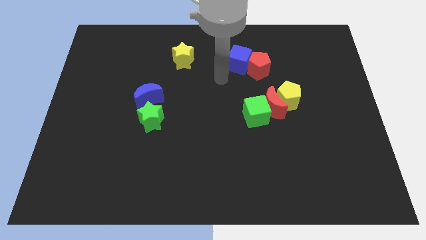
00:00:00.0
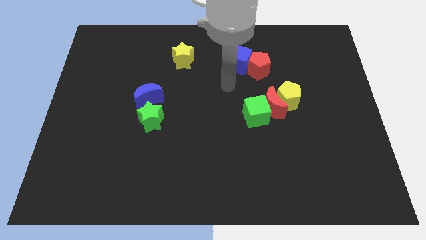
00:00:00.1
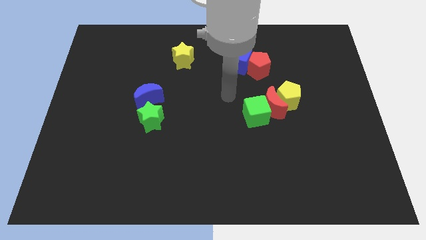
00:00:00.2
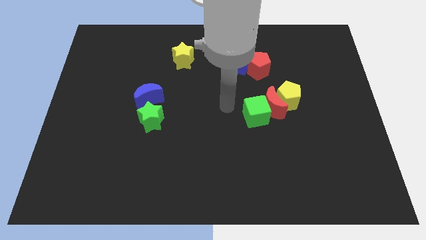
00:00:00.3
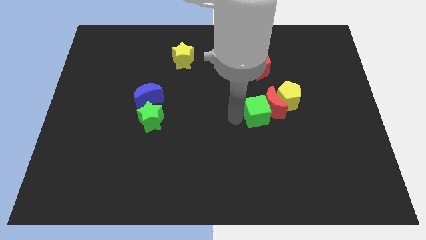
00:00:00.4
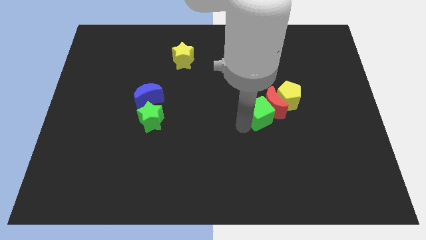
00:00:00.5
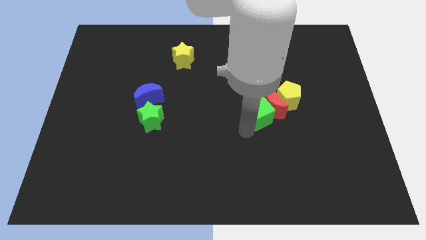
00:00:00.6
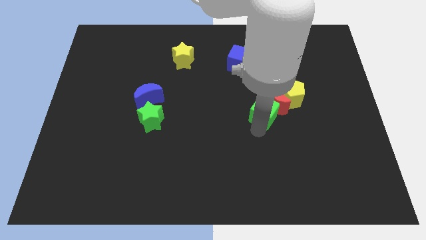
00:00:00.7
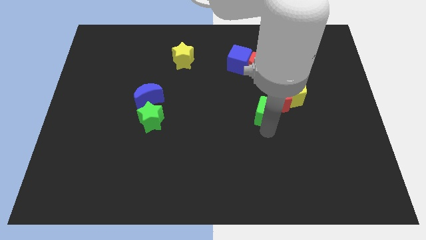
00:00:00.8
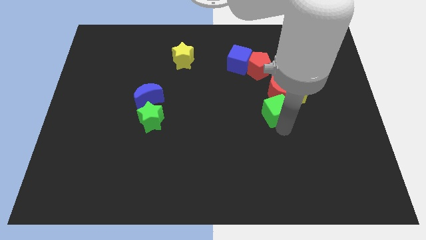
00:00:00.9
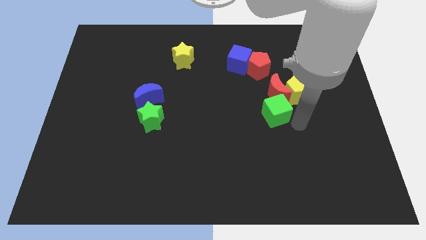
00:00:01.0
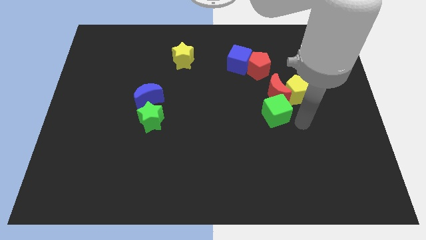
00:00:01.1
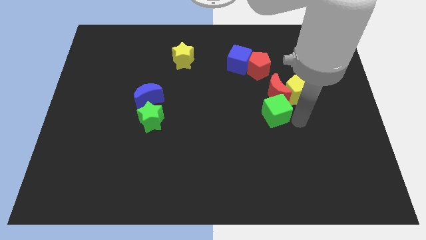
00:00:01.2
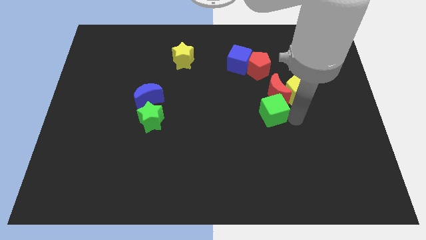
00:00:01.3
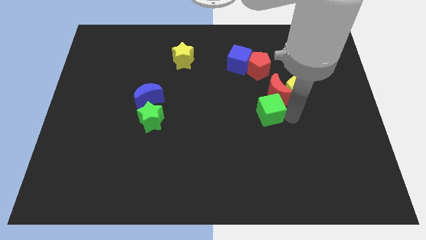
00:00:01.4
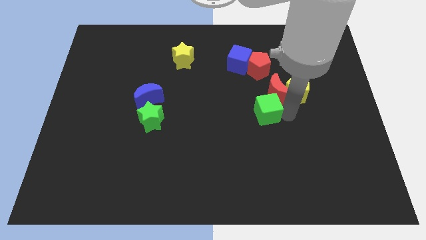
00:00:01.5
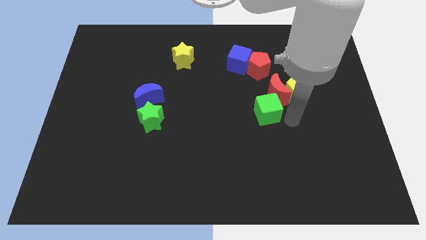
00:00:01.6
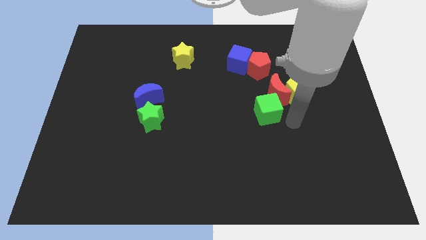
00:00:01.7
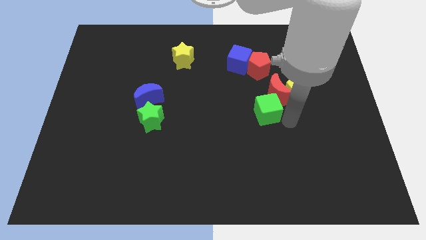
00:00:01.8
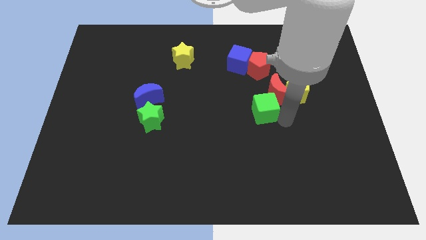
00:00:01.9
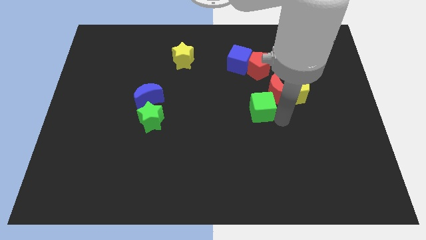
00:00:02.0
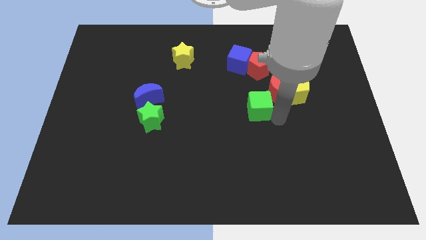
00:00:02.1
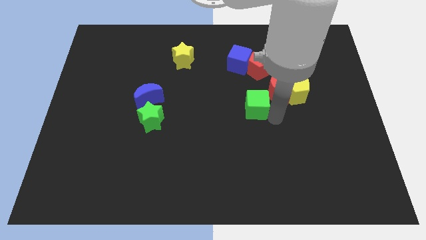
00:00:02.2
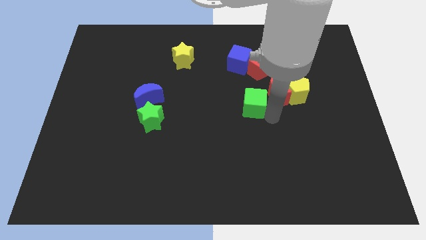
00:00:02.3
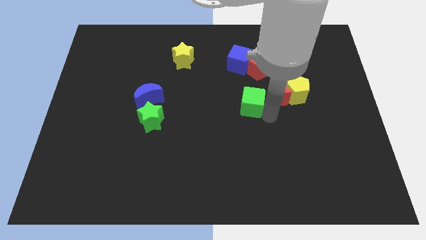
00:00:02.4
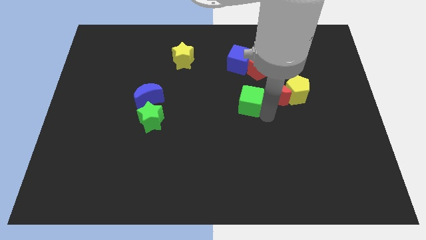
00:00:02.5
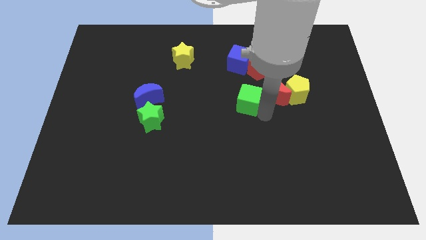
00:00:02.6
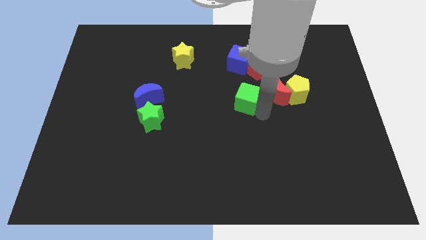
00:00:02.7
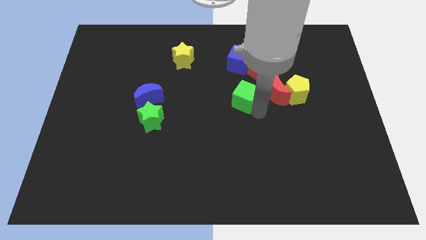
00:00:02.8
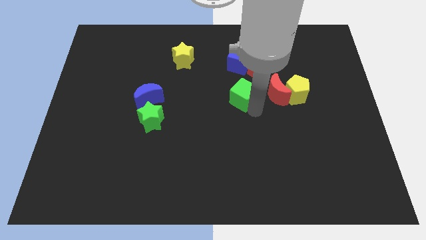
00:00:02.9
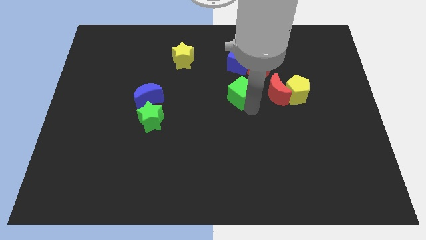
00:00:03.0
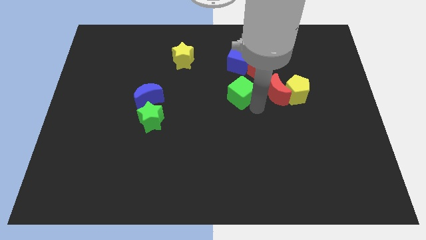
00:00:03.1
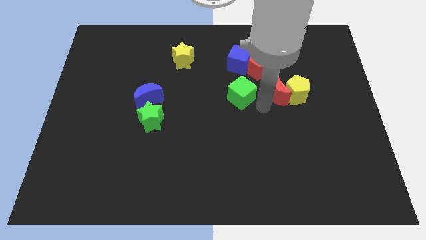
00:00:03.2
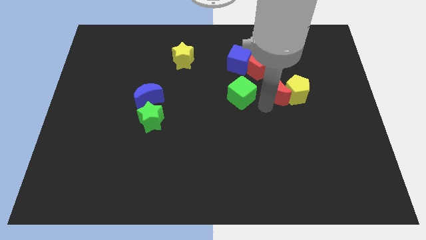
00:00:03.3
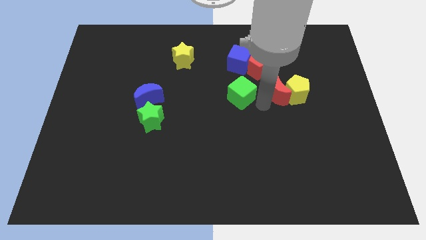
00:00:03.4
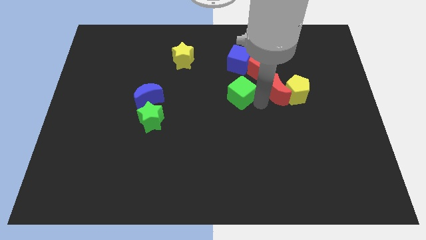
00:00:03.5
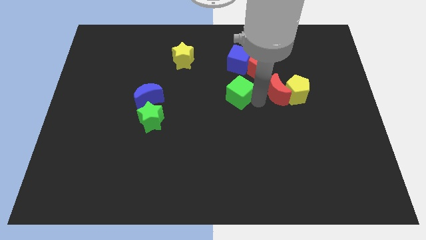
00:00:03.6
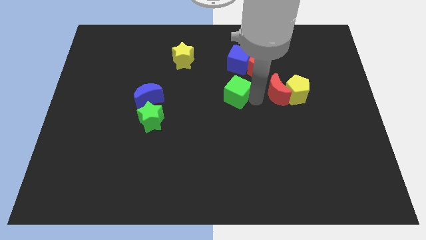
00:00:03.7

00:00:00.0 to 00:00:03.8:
push the green cube a bit diagonally up and left

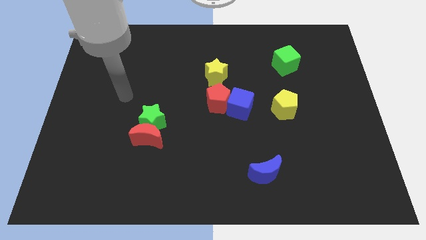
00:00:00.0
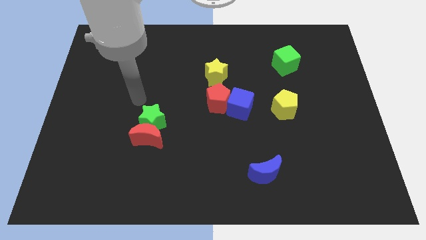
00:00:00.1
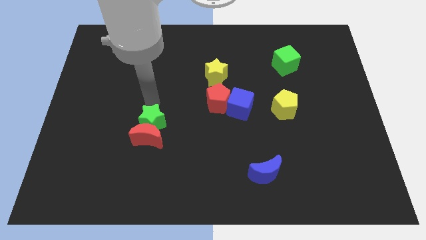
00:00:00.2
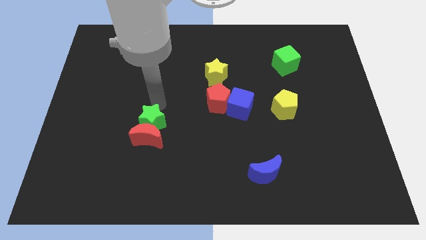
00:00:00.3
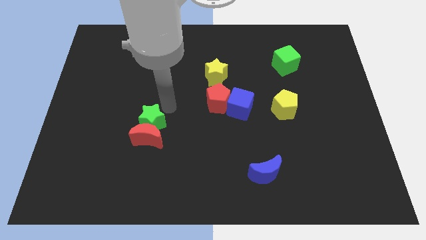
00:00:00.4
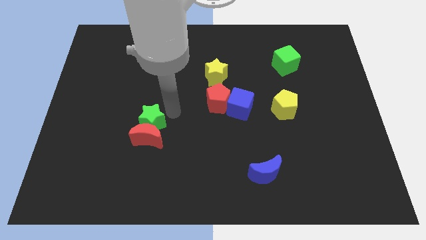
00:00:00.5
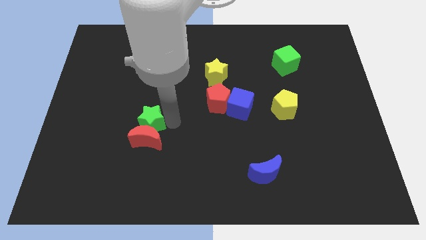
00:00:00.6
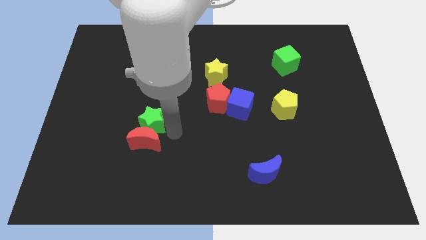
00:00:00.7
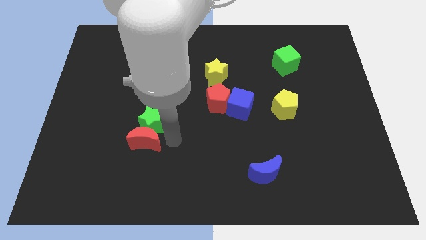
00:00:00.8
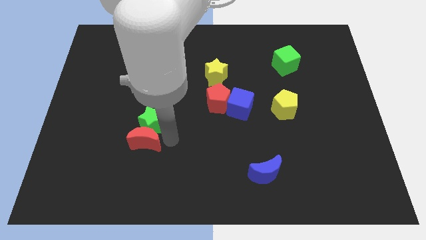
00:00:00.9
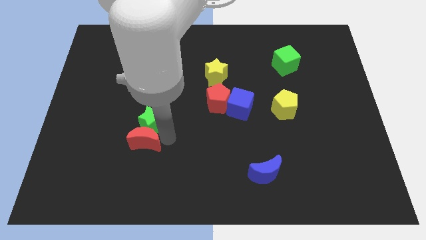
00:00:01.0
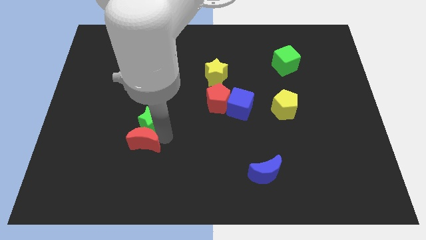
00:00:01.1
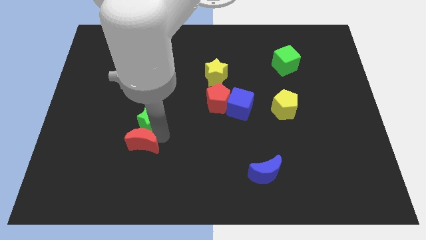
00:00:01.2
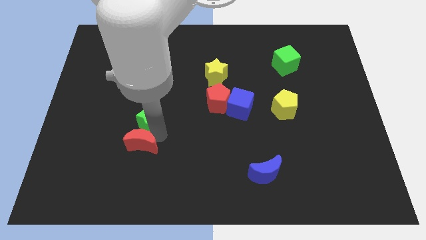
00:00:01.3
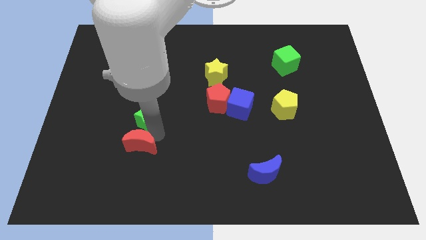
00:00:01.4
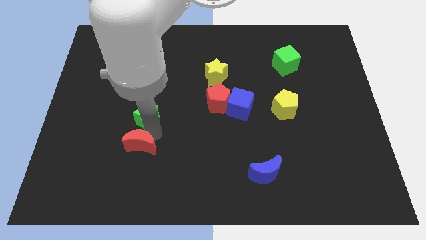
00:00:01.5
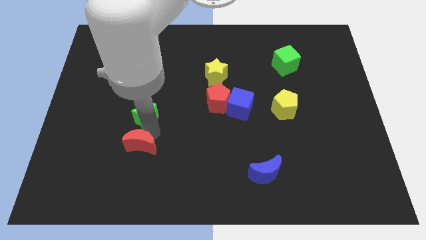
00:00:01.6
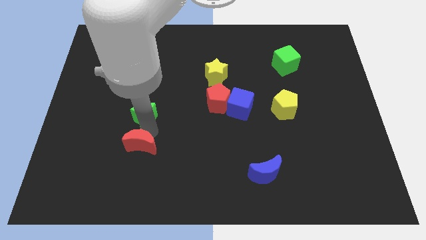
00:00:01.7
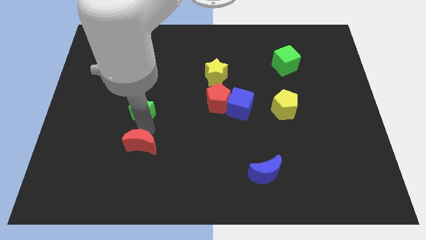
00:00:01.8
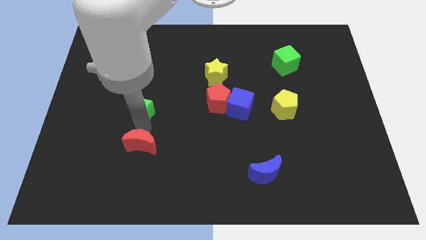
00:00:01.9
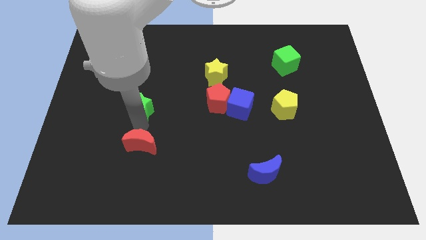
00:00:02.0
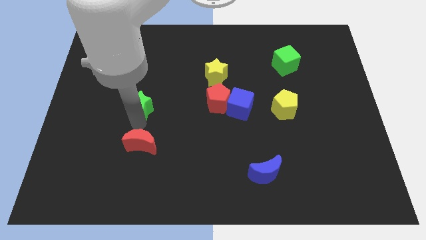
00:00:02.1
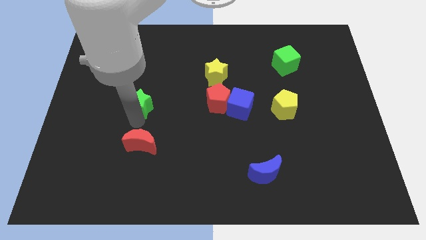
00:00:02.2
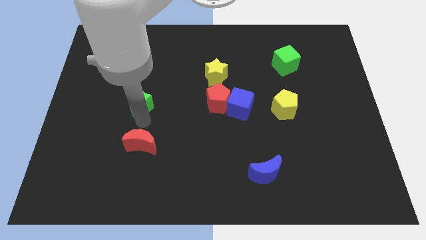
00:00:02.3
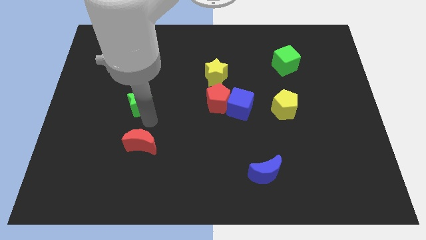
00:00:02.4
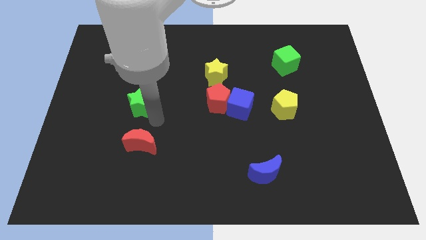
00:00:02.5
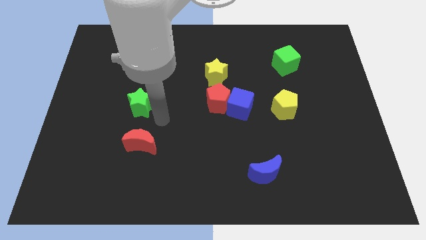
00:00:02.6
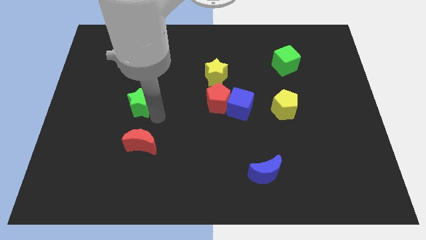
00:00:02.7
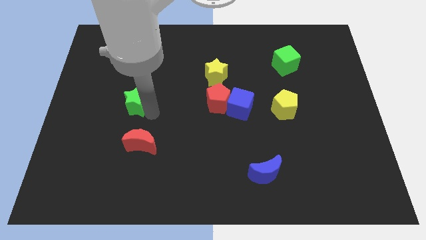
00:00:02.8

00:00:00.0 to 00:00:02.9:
slightly move the green star diagonally upwards and left

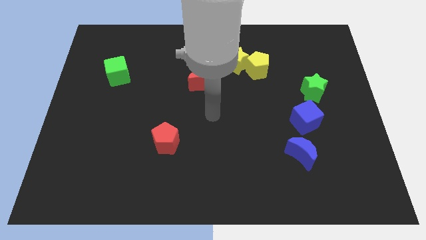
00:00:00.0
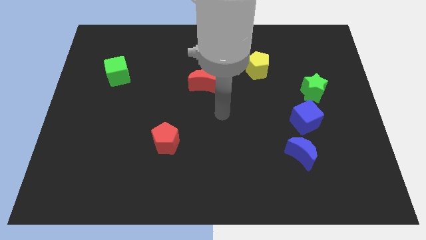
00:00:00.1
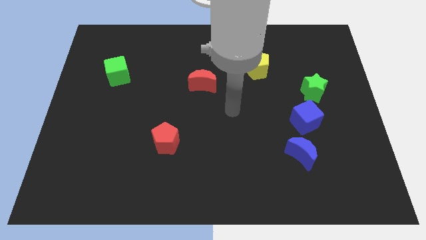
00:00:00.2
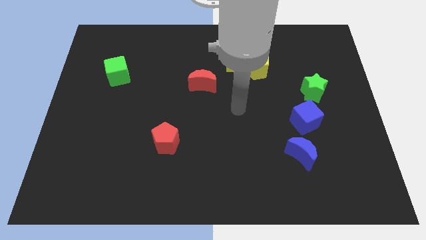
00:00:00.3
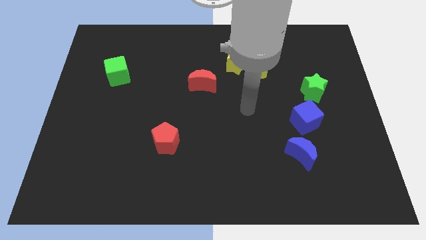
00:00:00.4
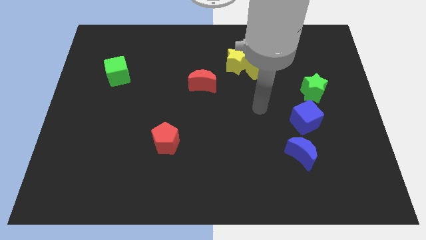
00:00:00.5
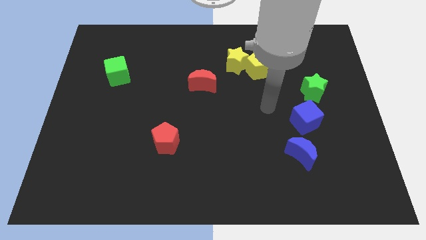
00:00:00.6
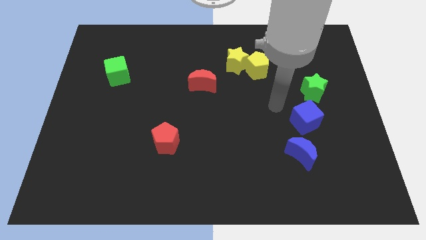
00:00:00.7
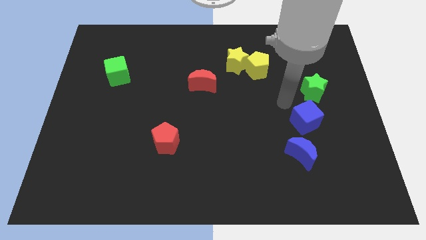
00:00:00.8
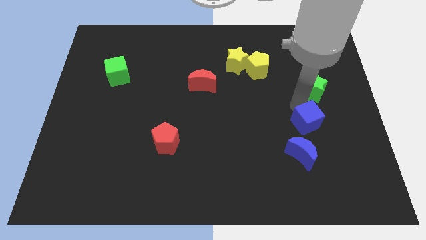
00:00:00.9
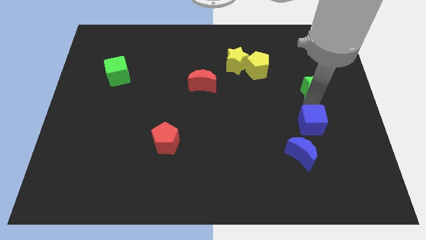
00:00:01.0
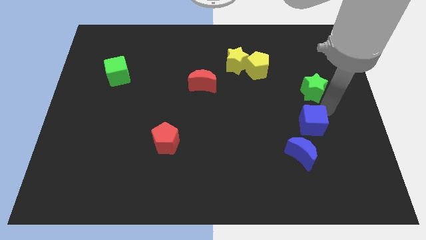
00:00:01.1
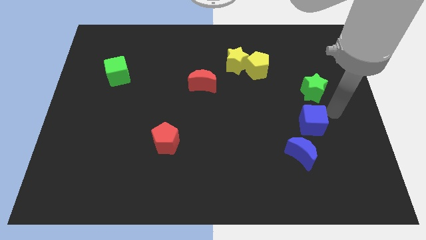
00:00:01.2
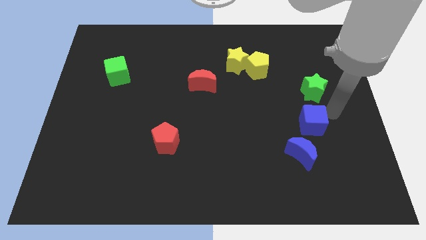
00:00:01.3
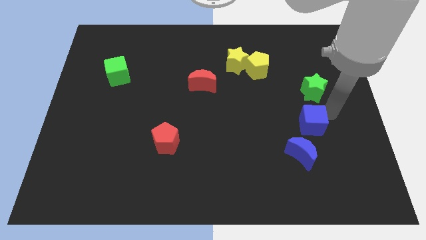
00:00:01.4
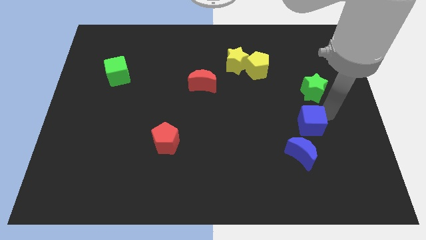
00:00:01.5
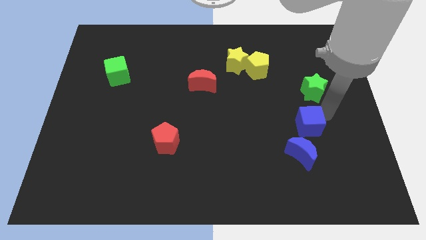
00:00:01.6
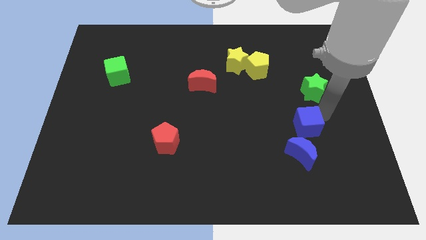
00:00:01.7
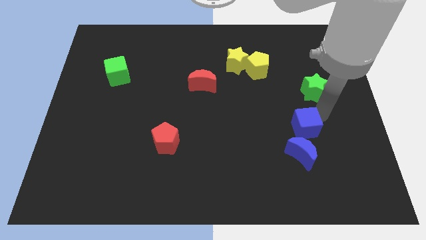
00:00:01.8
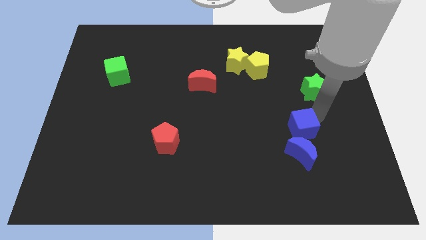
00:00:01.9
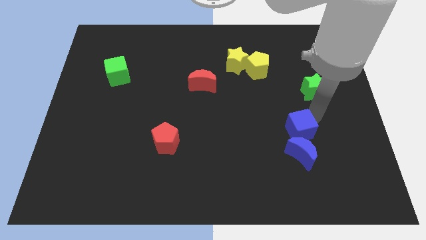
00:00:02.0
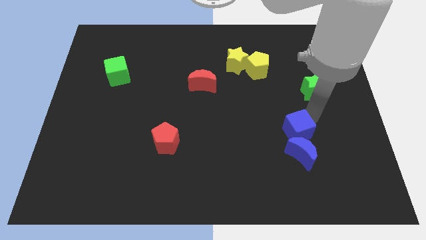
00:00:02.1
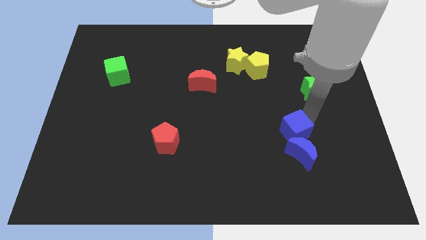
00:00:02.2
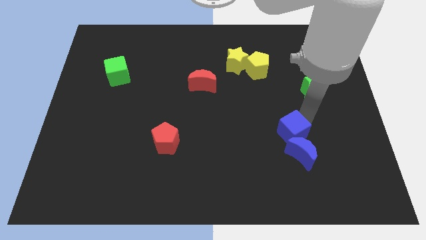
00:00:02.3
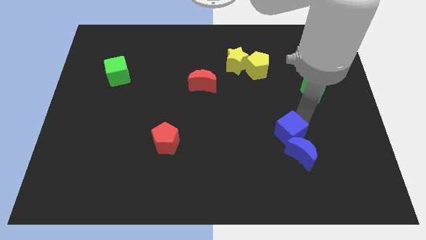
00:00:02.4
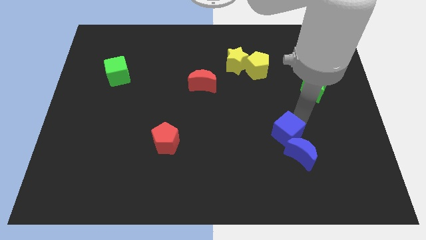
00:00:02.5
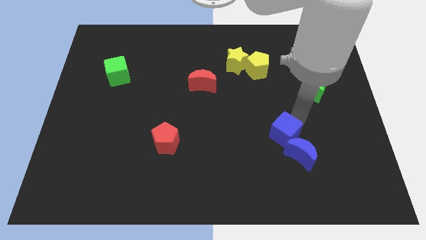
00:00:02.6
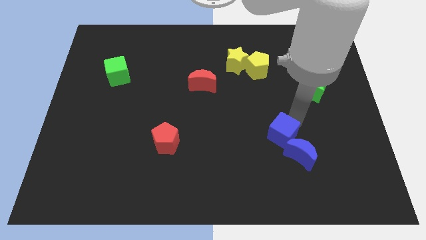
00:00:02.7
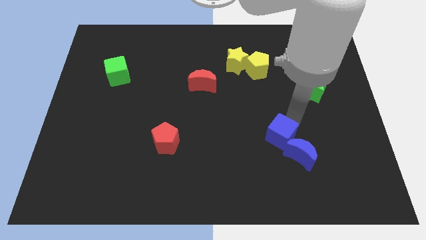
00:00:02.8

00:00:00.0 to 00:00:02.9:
slightly push the blue cube downwards and left diagonally
